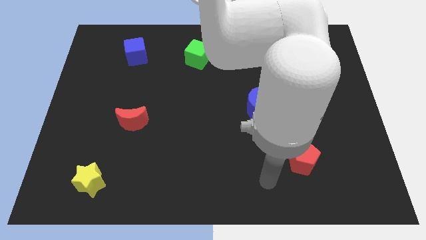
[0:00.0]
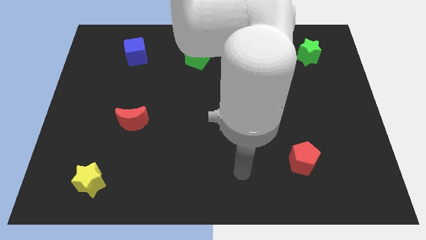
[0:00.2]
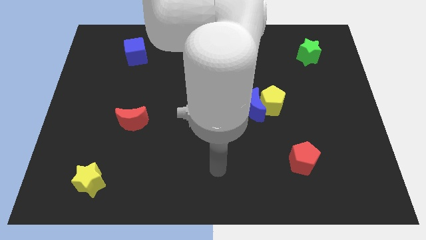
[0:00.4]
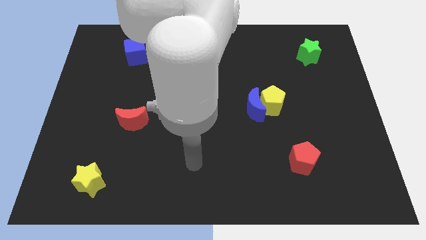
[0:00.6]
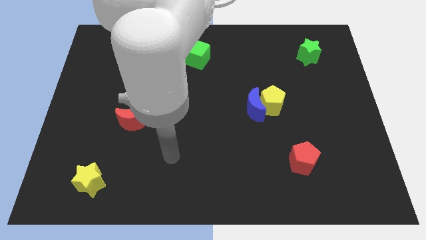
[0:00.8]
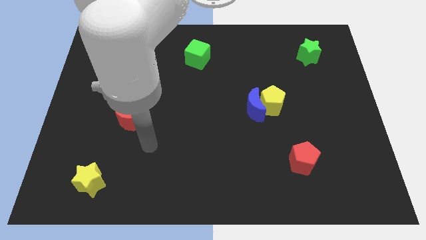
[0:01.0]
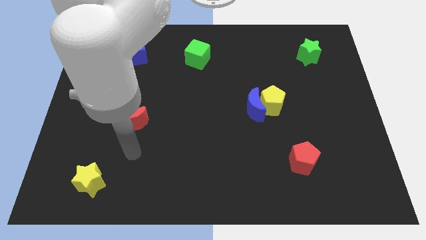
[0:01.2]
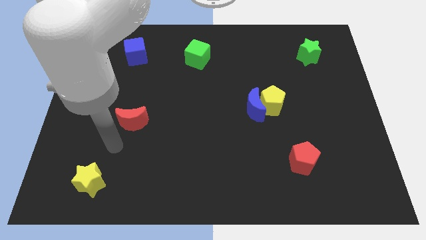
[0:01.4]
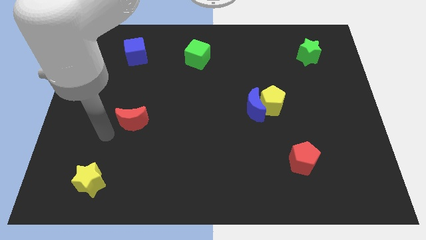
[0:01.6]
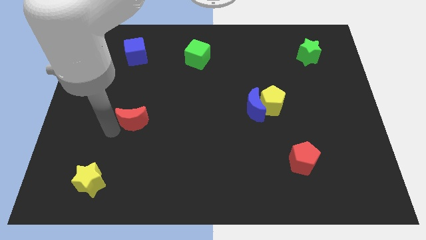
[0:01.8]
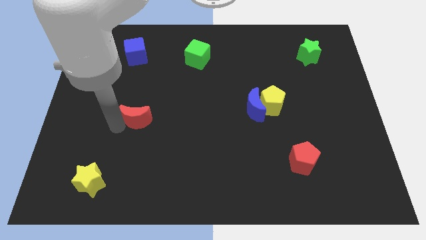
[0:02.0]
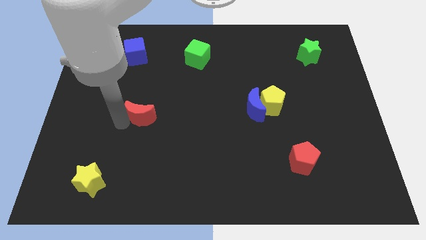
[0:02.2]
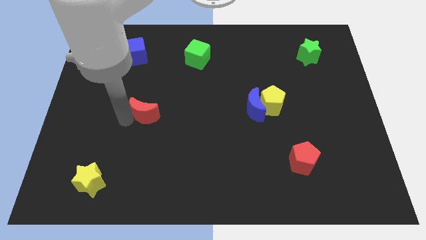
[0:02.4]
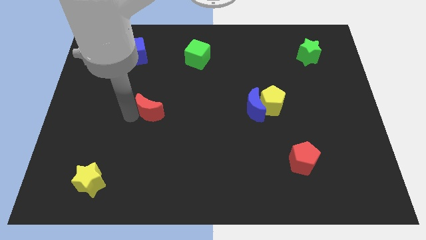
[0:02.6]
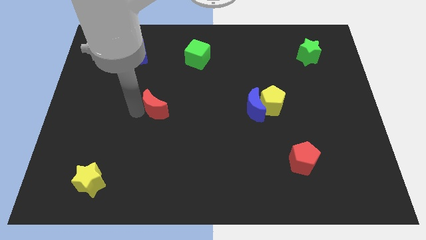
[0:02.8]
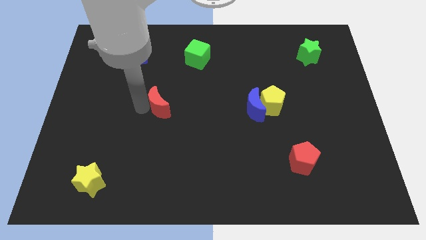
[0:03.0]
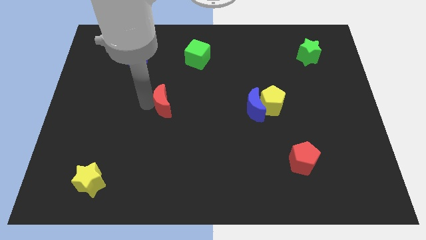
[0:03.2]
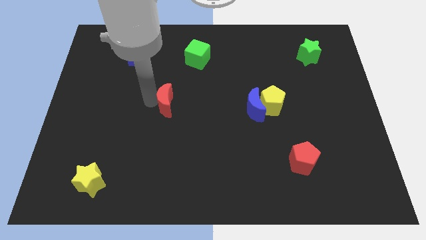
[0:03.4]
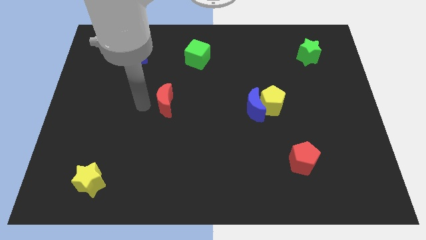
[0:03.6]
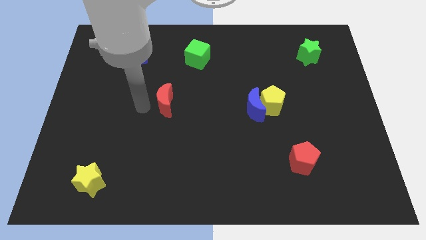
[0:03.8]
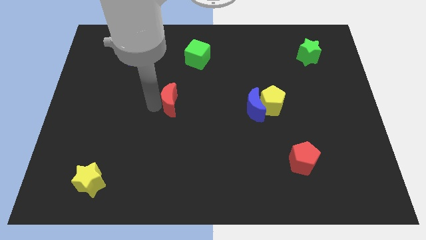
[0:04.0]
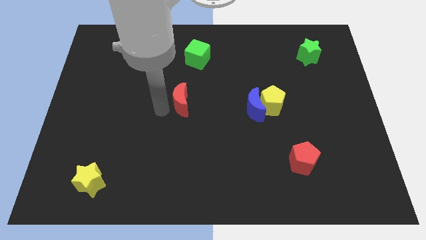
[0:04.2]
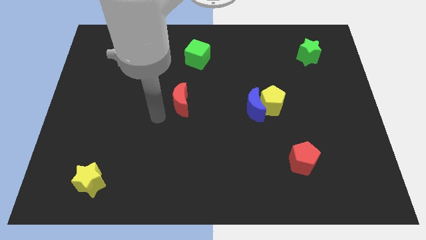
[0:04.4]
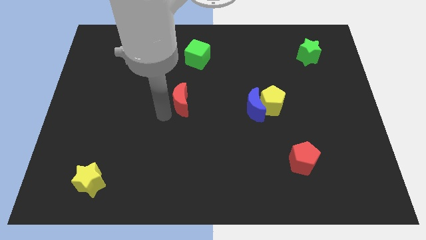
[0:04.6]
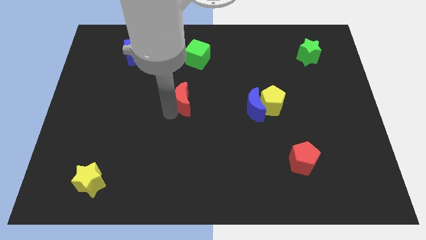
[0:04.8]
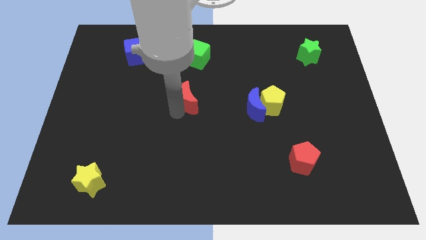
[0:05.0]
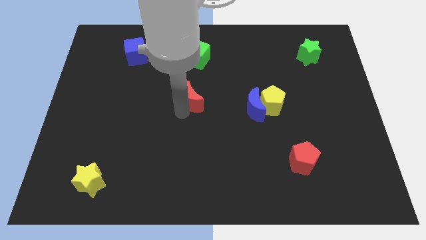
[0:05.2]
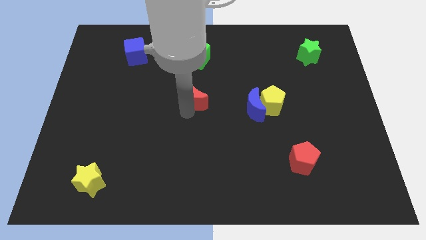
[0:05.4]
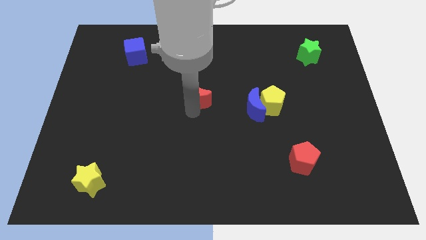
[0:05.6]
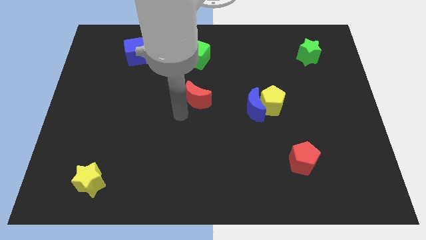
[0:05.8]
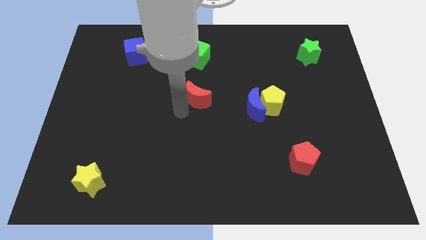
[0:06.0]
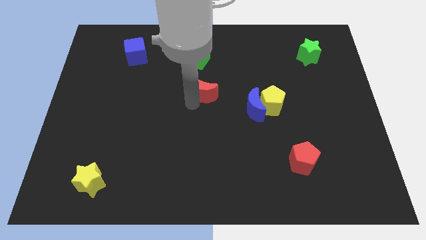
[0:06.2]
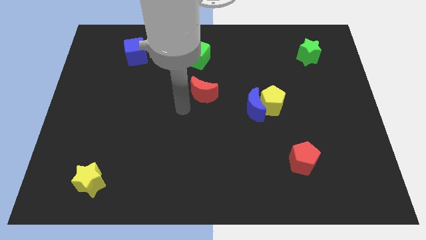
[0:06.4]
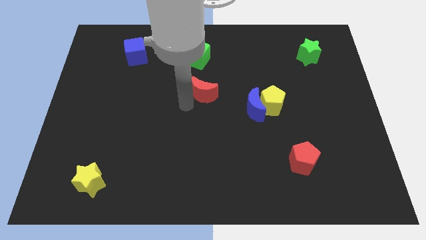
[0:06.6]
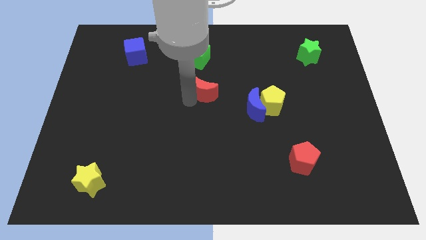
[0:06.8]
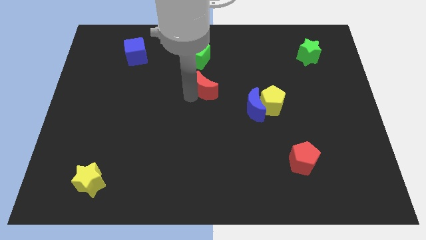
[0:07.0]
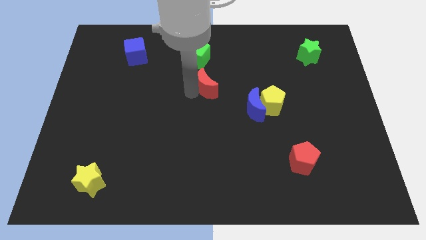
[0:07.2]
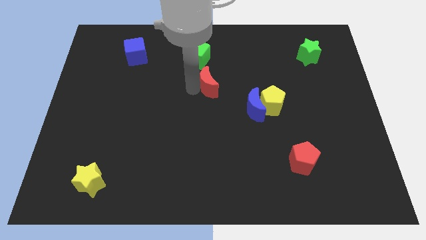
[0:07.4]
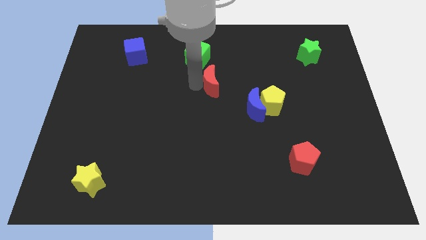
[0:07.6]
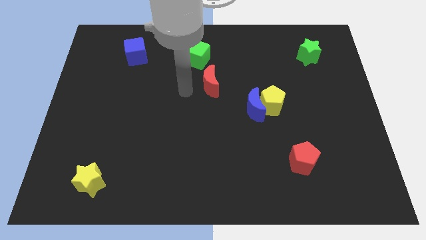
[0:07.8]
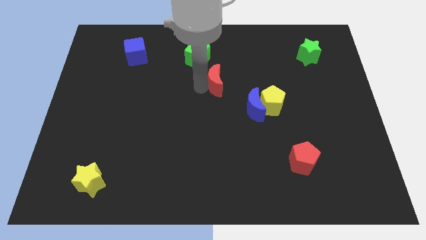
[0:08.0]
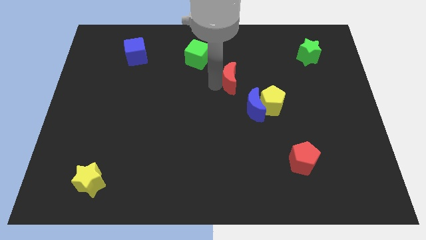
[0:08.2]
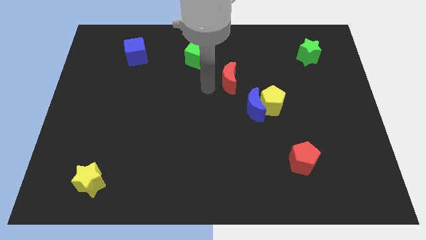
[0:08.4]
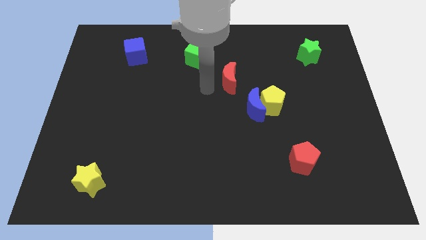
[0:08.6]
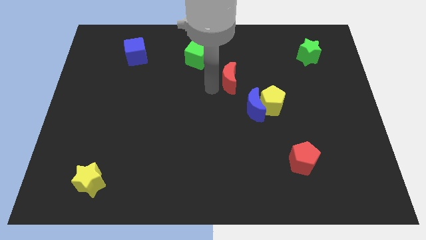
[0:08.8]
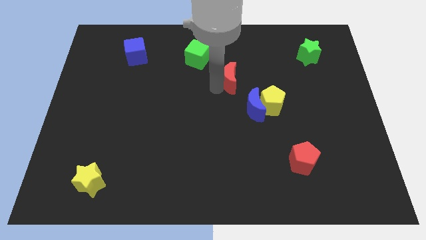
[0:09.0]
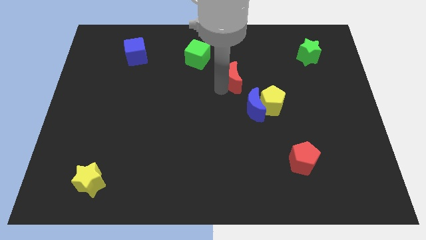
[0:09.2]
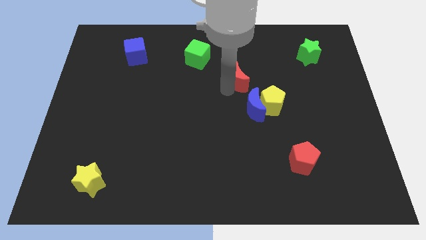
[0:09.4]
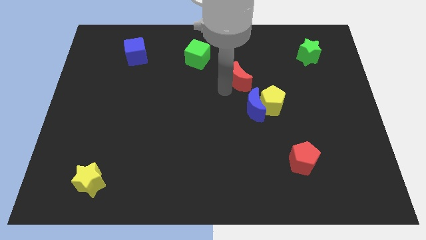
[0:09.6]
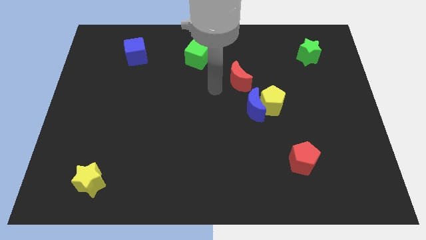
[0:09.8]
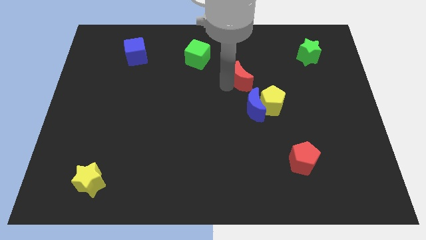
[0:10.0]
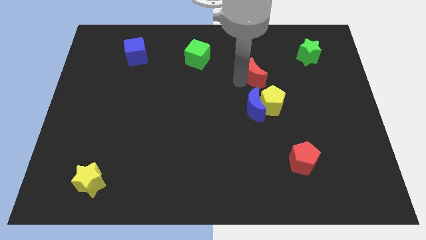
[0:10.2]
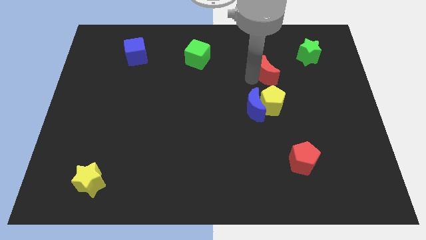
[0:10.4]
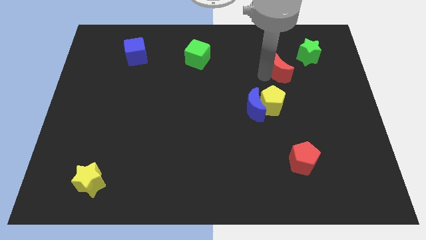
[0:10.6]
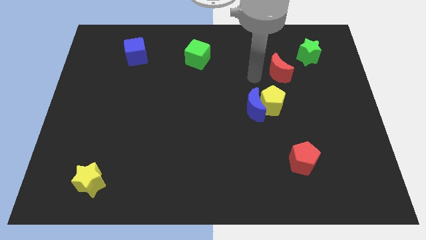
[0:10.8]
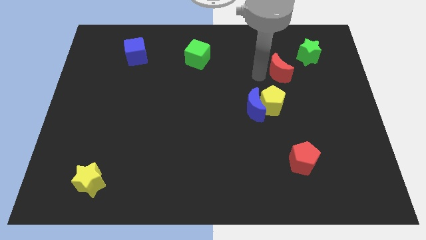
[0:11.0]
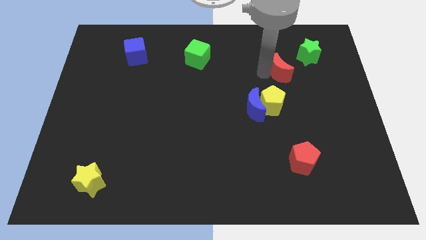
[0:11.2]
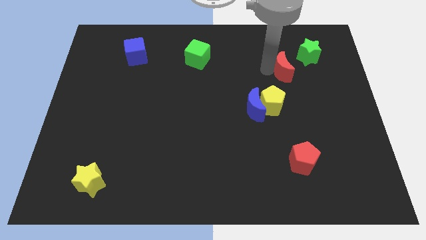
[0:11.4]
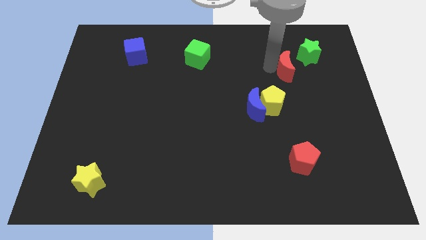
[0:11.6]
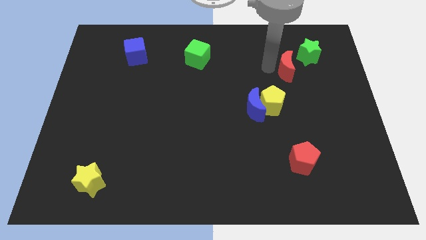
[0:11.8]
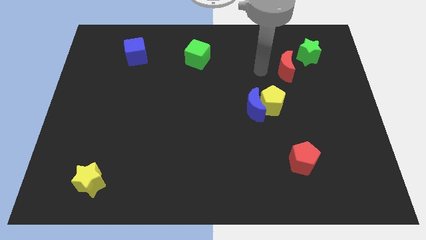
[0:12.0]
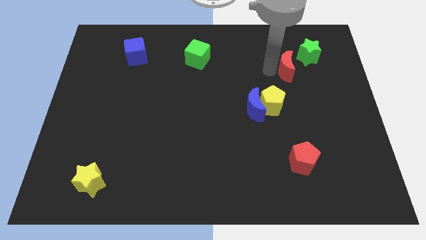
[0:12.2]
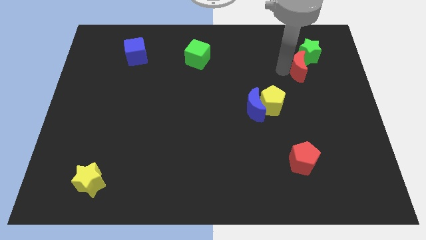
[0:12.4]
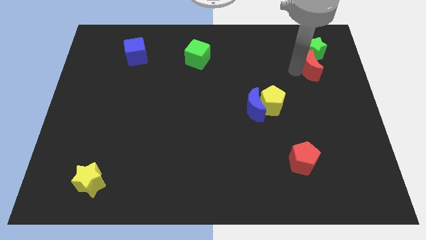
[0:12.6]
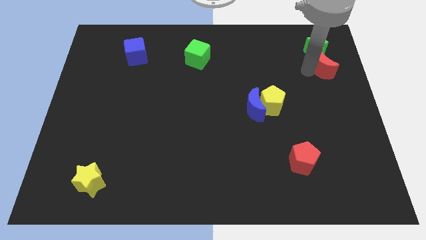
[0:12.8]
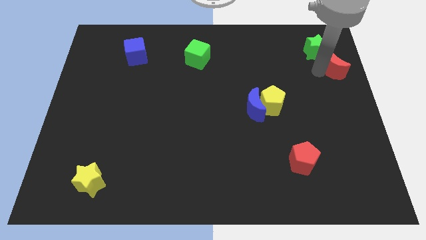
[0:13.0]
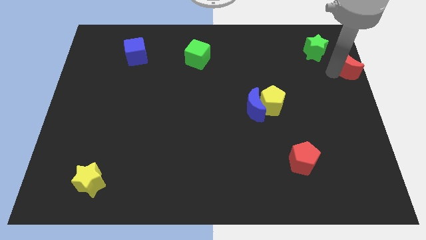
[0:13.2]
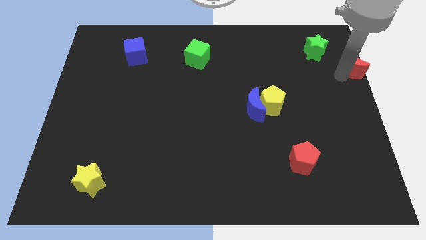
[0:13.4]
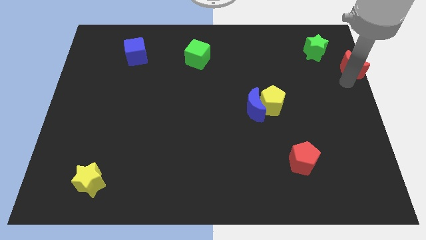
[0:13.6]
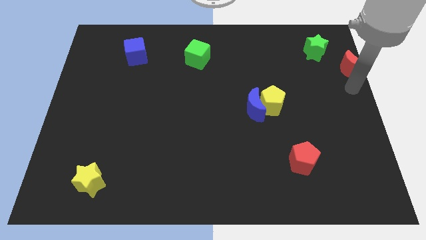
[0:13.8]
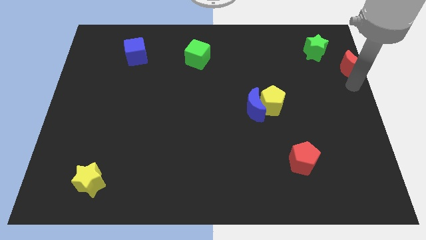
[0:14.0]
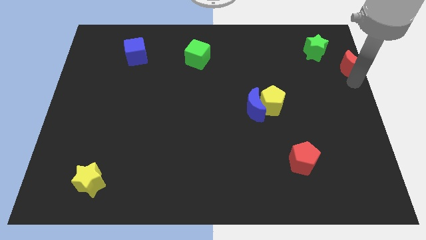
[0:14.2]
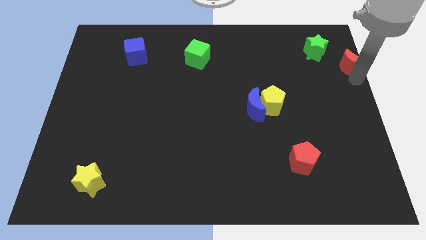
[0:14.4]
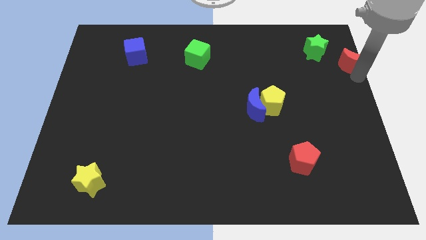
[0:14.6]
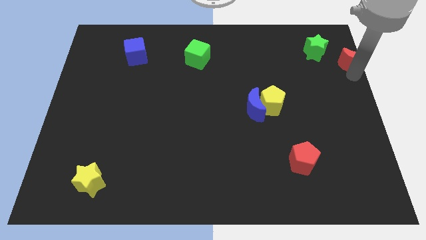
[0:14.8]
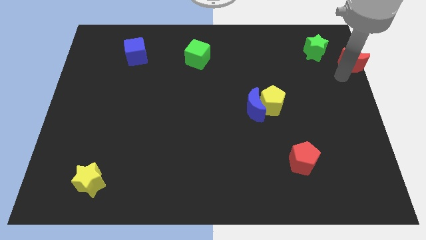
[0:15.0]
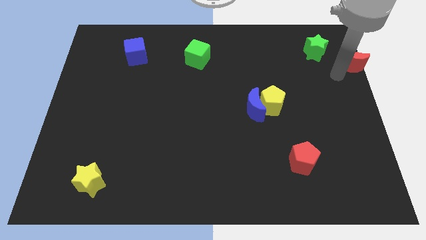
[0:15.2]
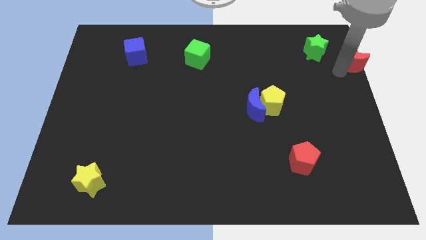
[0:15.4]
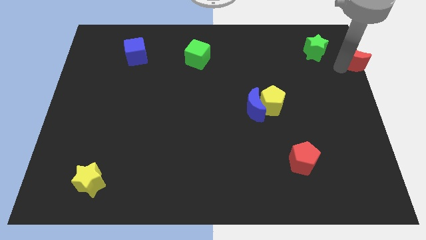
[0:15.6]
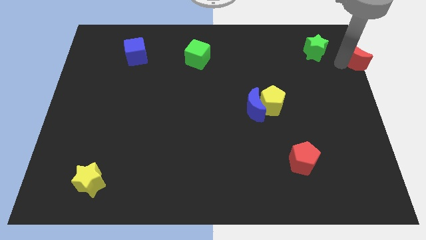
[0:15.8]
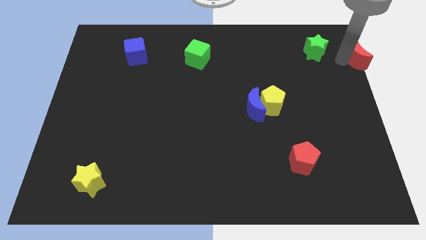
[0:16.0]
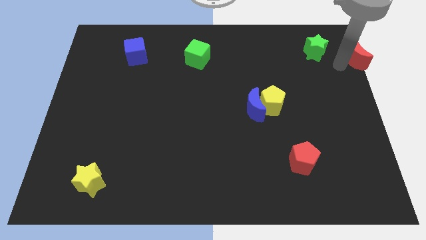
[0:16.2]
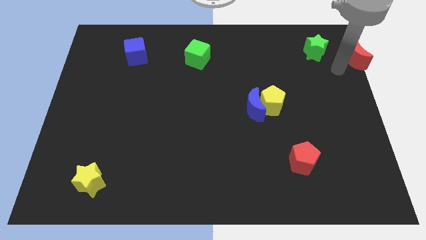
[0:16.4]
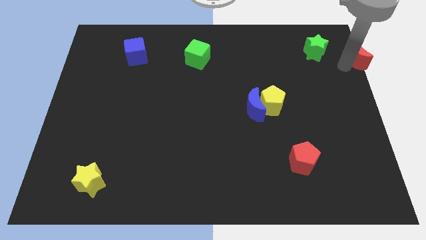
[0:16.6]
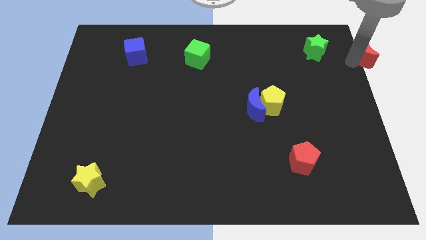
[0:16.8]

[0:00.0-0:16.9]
move the red moon to the top right
